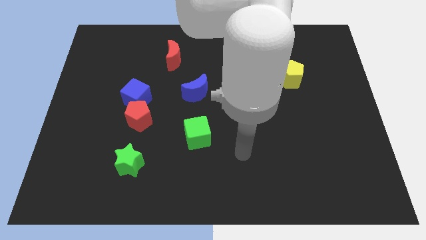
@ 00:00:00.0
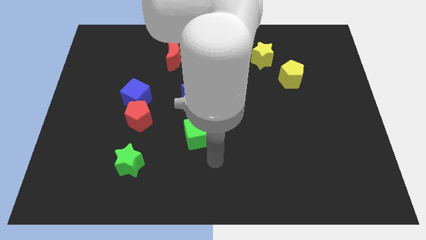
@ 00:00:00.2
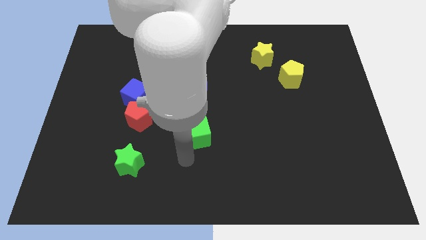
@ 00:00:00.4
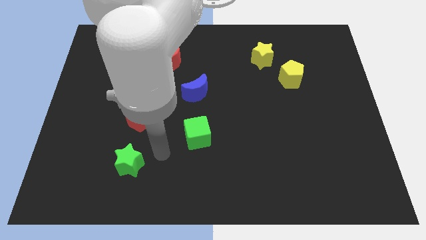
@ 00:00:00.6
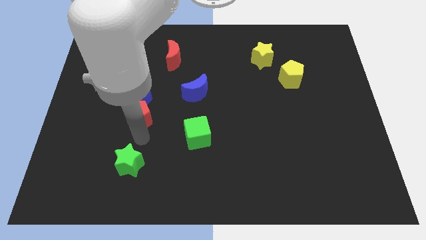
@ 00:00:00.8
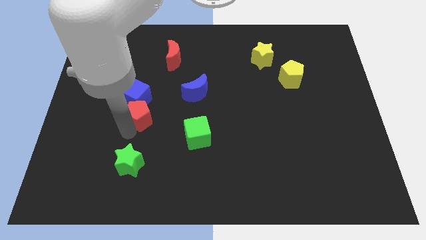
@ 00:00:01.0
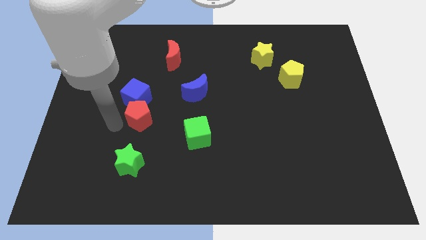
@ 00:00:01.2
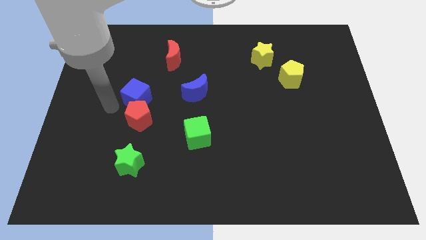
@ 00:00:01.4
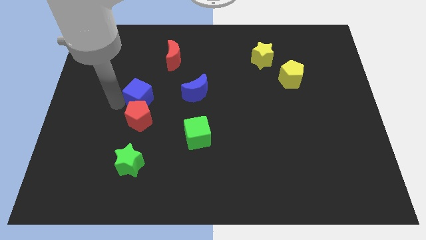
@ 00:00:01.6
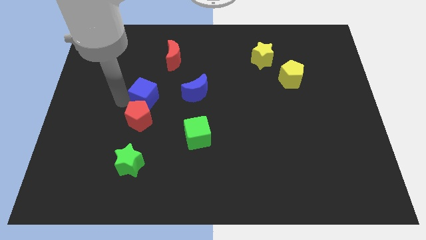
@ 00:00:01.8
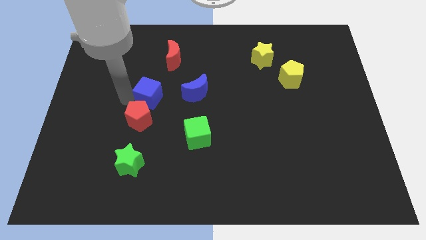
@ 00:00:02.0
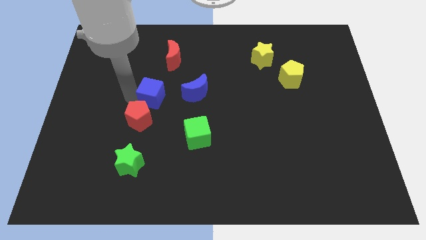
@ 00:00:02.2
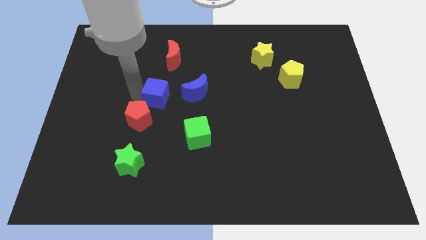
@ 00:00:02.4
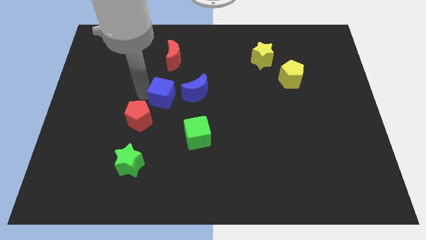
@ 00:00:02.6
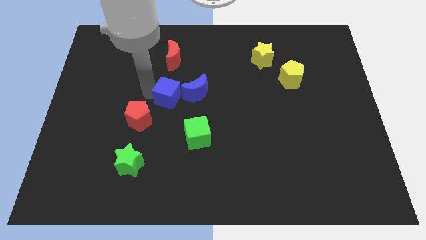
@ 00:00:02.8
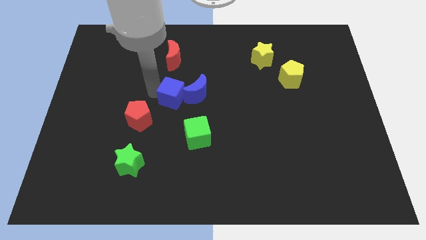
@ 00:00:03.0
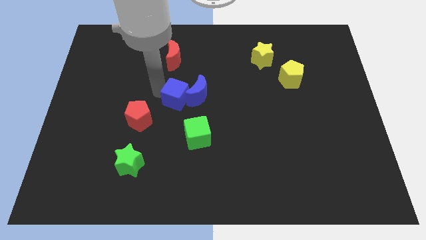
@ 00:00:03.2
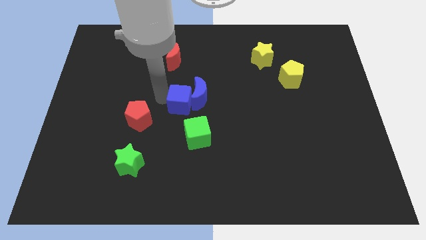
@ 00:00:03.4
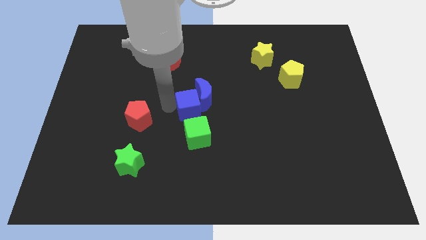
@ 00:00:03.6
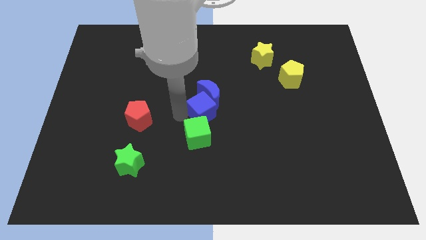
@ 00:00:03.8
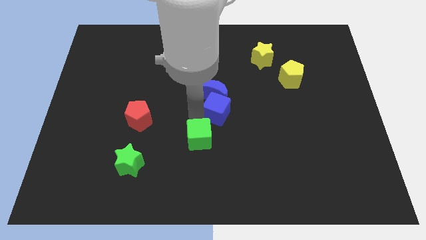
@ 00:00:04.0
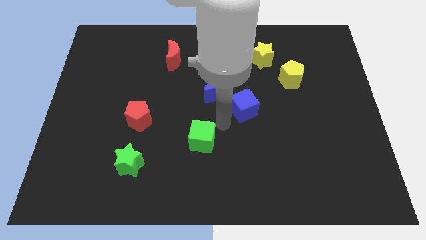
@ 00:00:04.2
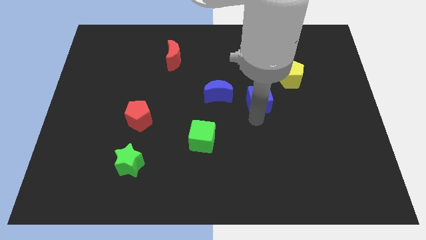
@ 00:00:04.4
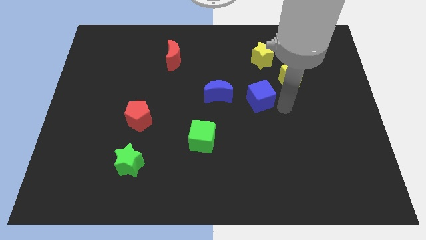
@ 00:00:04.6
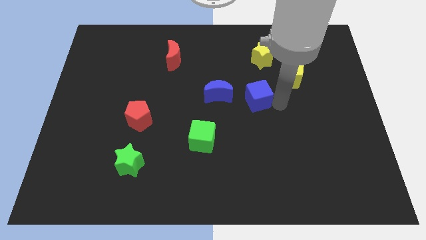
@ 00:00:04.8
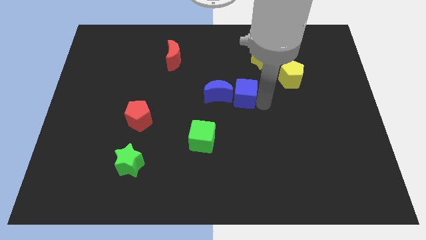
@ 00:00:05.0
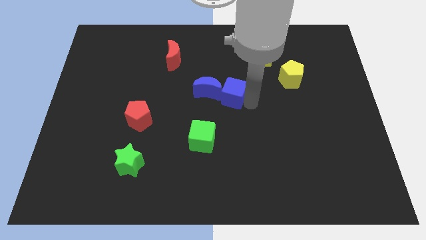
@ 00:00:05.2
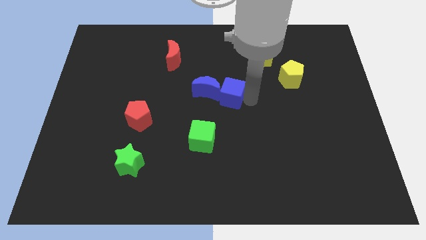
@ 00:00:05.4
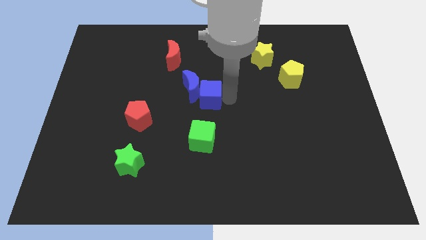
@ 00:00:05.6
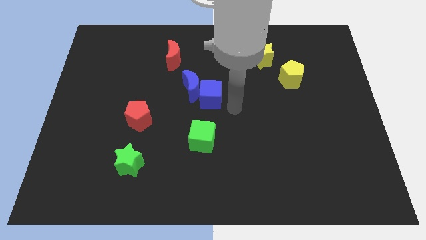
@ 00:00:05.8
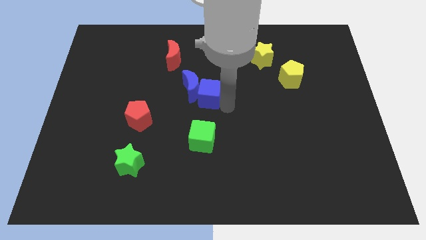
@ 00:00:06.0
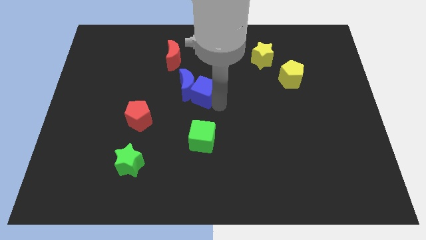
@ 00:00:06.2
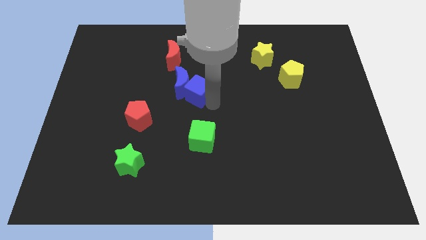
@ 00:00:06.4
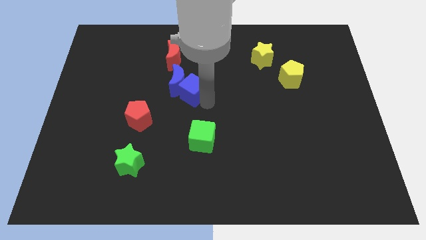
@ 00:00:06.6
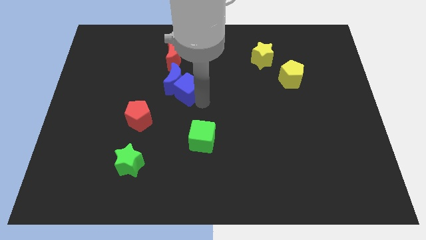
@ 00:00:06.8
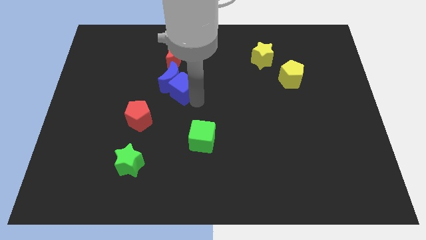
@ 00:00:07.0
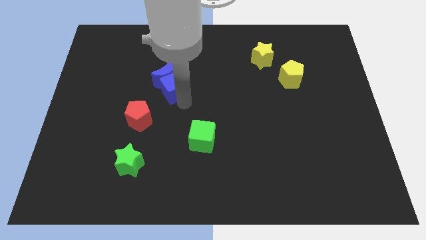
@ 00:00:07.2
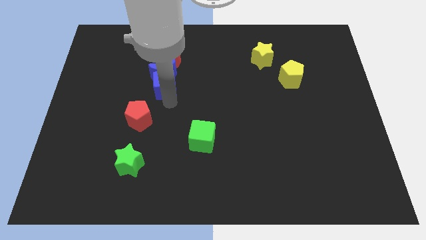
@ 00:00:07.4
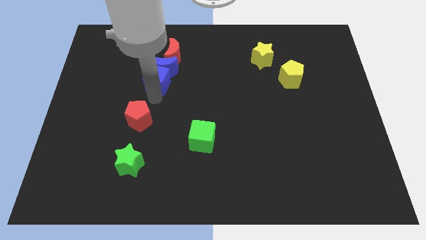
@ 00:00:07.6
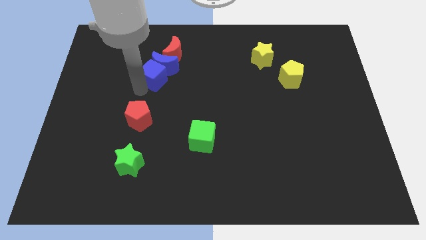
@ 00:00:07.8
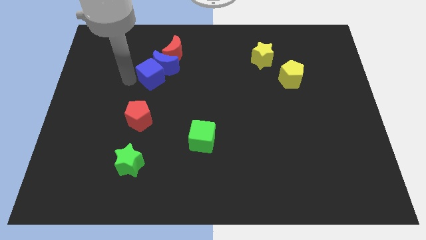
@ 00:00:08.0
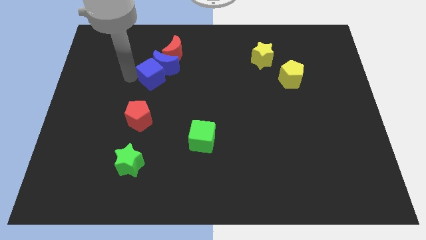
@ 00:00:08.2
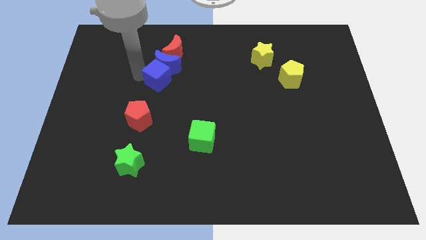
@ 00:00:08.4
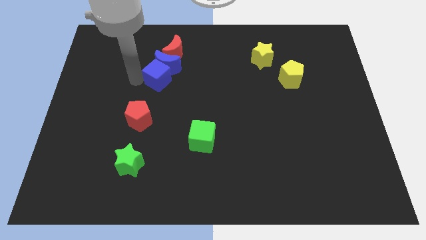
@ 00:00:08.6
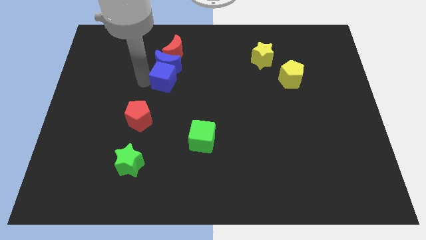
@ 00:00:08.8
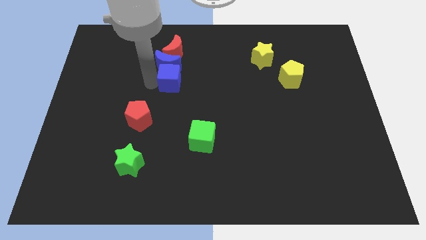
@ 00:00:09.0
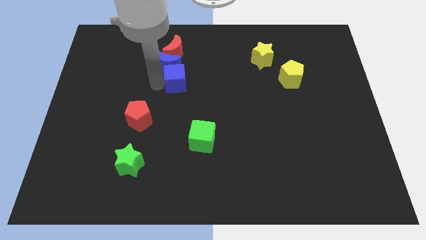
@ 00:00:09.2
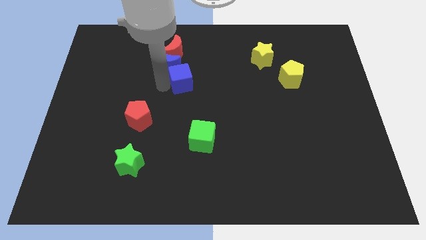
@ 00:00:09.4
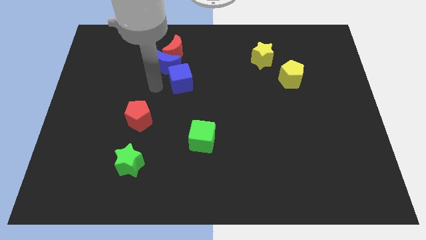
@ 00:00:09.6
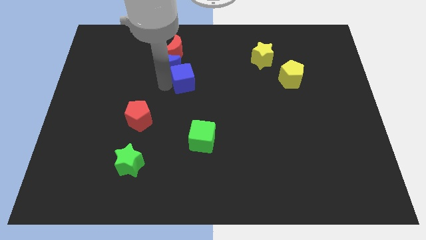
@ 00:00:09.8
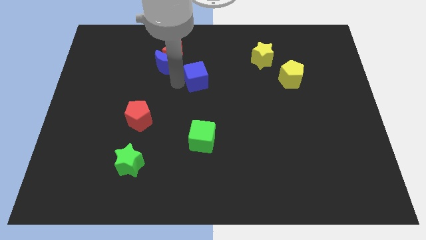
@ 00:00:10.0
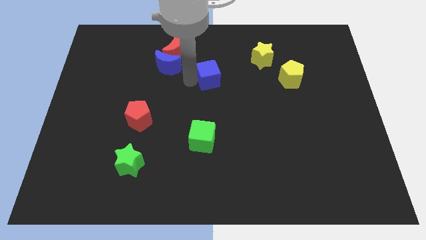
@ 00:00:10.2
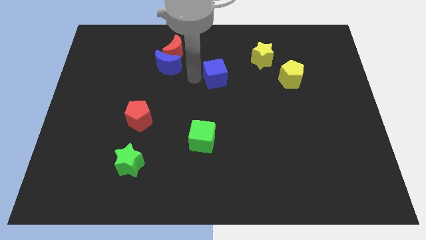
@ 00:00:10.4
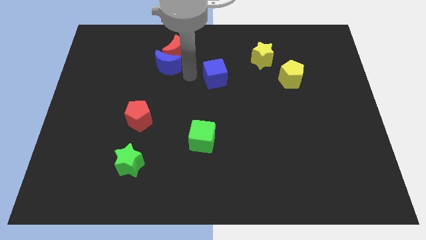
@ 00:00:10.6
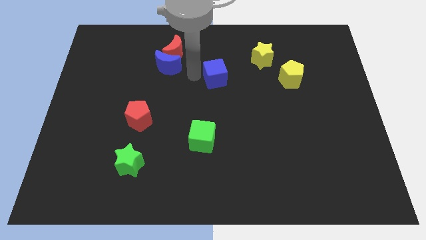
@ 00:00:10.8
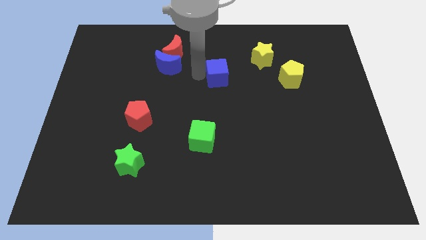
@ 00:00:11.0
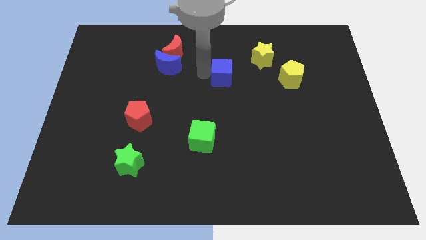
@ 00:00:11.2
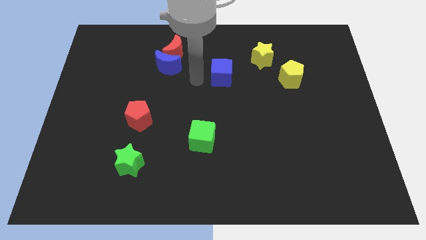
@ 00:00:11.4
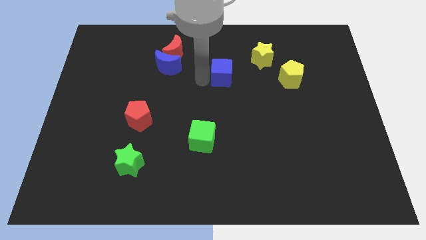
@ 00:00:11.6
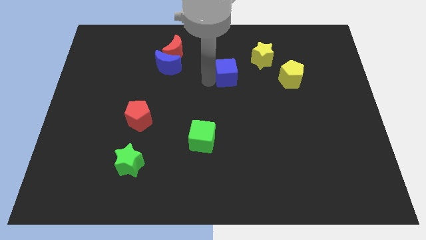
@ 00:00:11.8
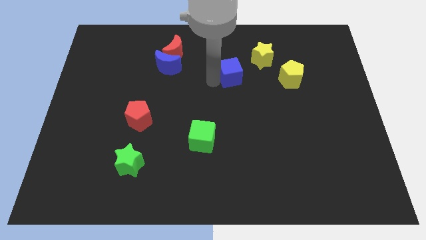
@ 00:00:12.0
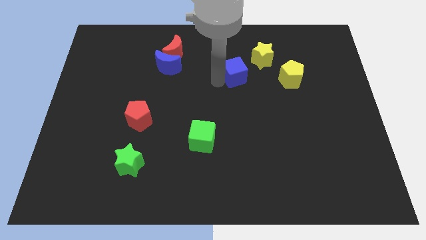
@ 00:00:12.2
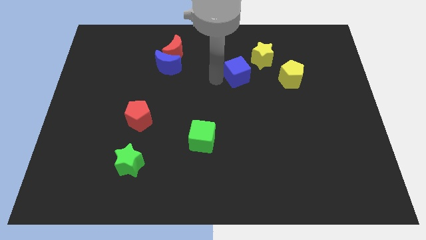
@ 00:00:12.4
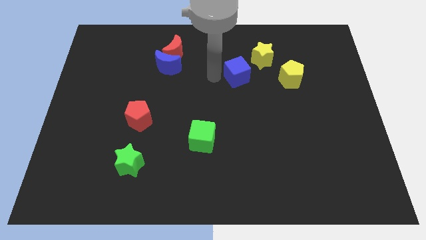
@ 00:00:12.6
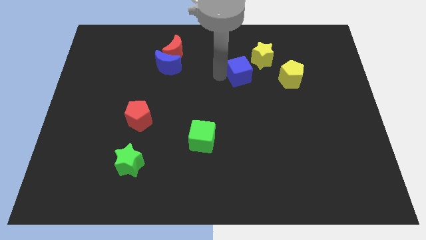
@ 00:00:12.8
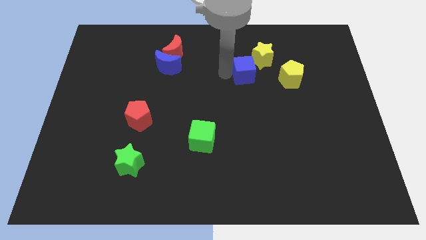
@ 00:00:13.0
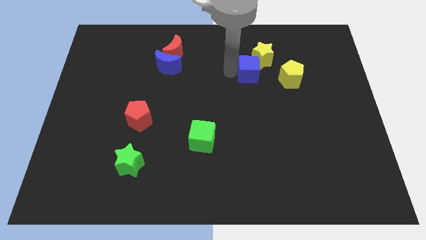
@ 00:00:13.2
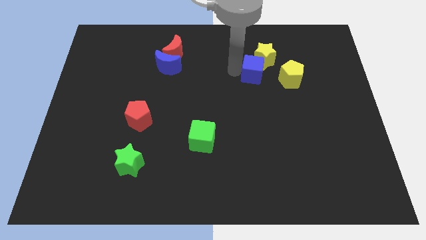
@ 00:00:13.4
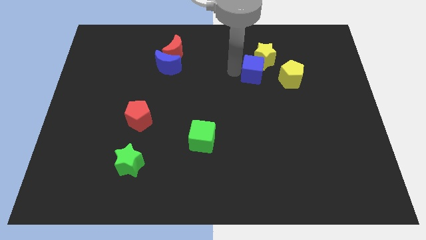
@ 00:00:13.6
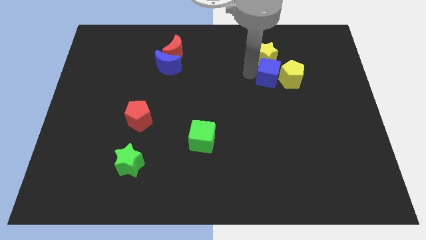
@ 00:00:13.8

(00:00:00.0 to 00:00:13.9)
put the blue cube towards the yellow pentagon

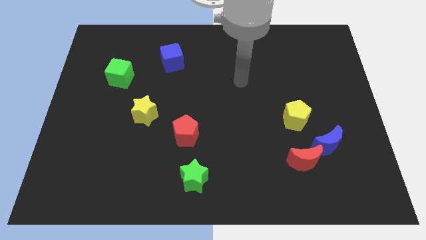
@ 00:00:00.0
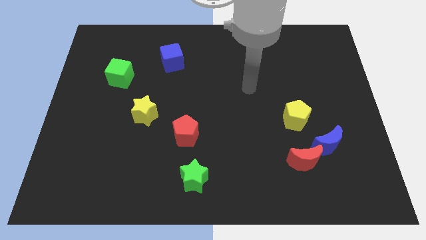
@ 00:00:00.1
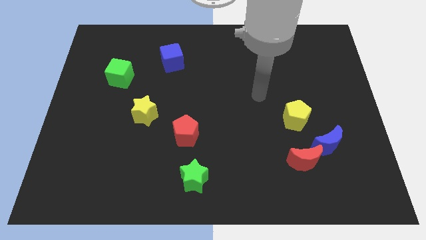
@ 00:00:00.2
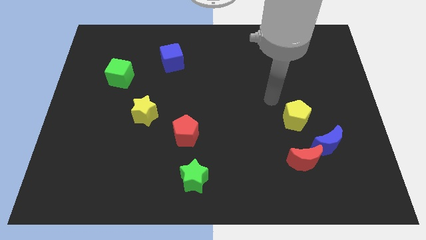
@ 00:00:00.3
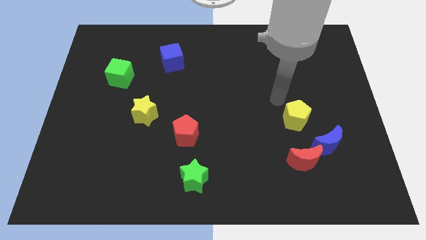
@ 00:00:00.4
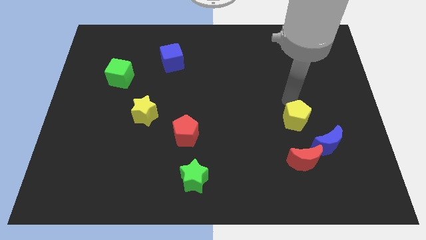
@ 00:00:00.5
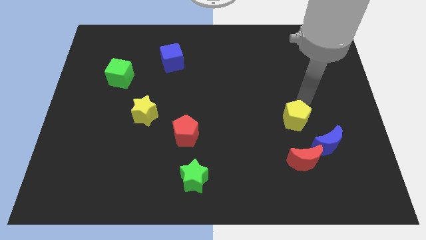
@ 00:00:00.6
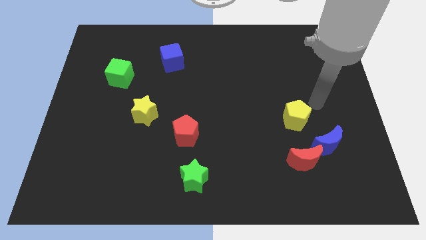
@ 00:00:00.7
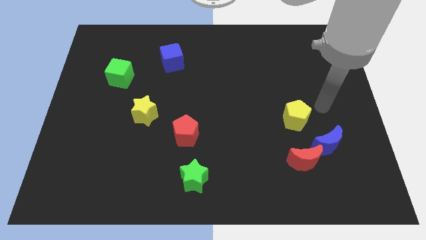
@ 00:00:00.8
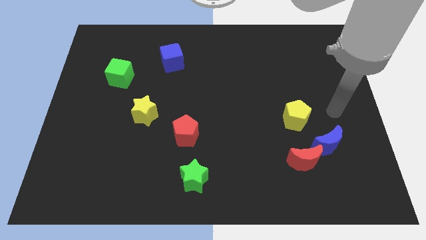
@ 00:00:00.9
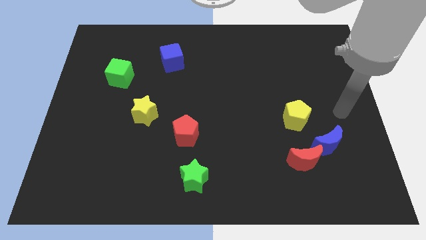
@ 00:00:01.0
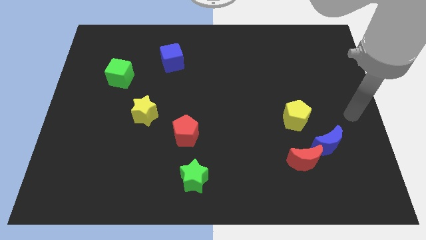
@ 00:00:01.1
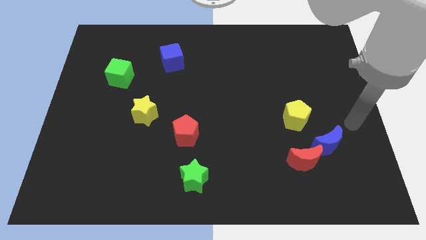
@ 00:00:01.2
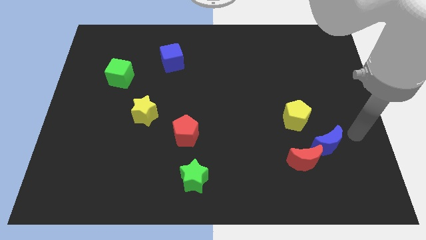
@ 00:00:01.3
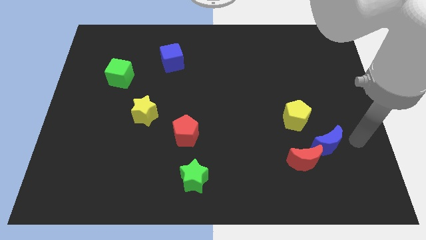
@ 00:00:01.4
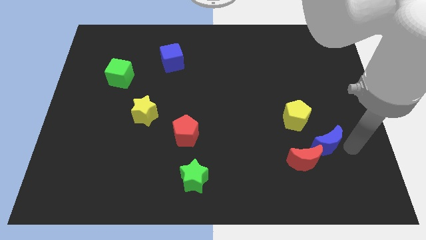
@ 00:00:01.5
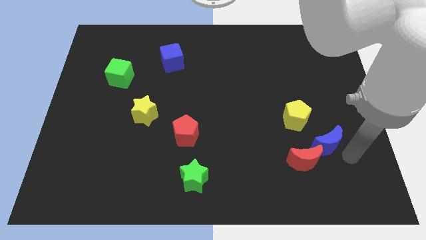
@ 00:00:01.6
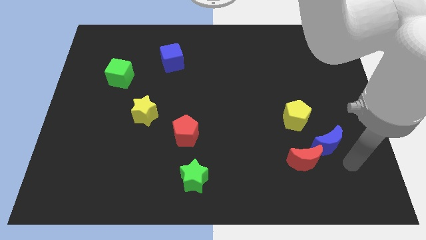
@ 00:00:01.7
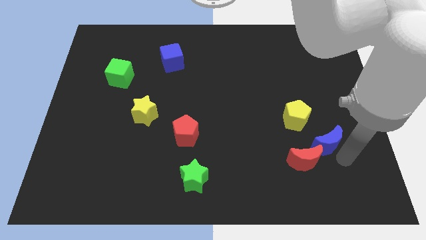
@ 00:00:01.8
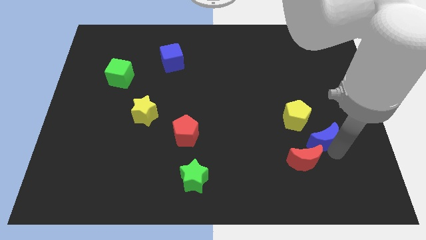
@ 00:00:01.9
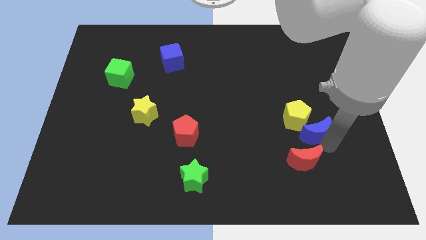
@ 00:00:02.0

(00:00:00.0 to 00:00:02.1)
move the blue moon next to the yellow pentagon
